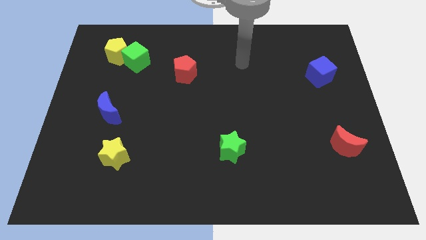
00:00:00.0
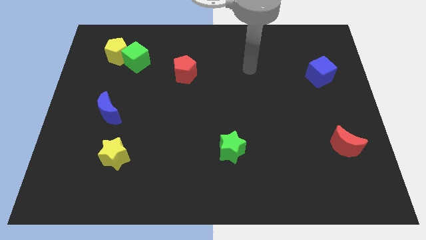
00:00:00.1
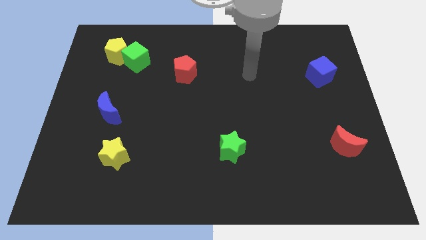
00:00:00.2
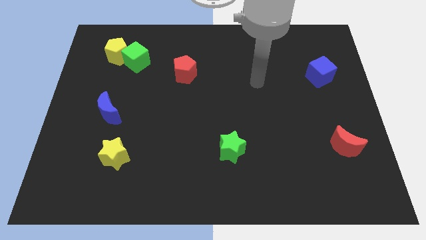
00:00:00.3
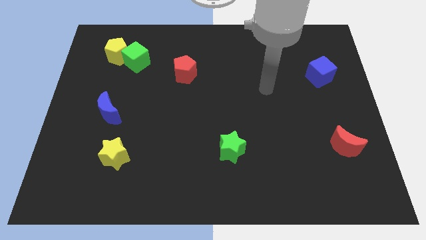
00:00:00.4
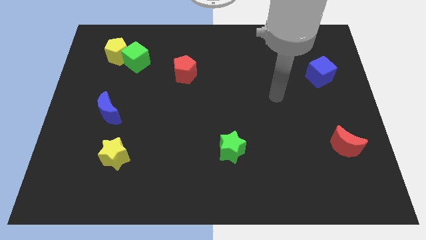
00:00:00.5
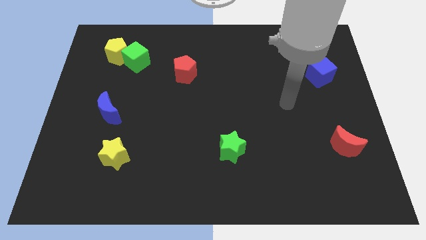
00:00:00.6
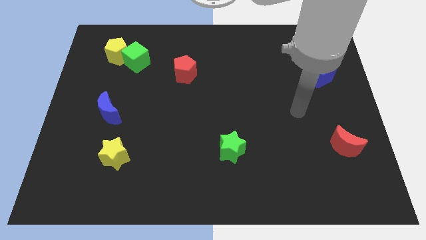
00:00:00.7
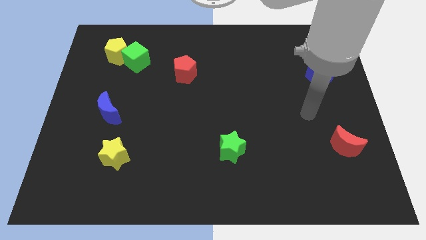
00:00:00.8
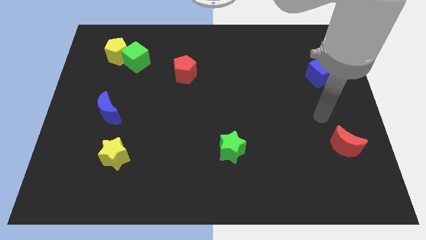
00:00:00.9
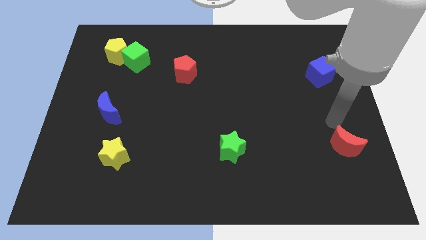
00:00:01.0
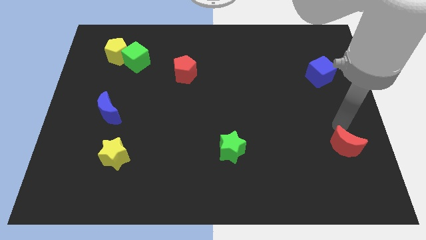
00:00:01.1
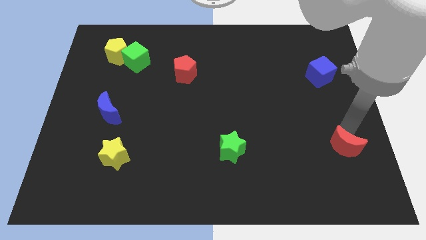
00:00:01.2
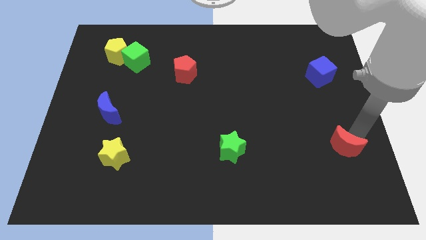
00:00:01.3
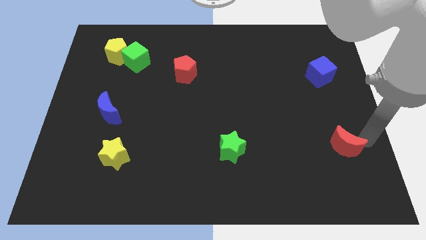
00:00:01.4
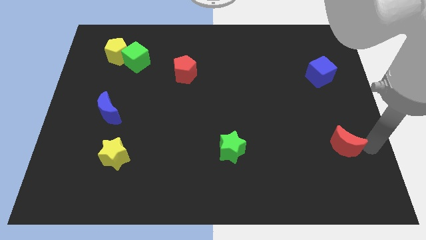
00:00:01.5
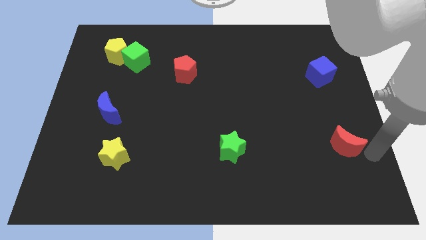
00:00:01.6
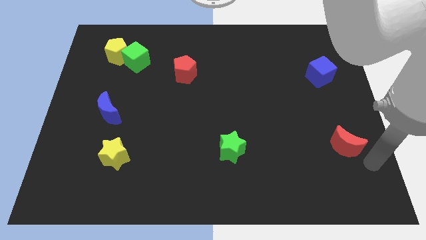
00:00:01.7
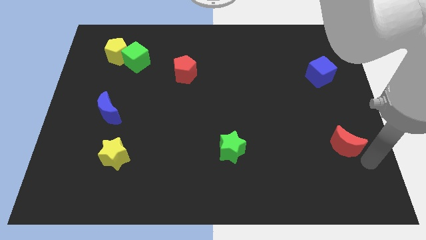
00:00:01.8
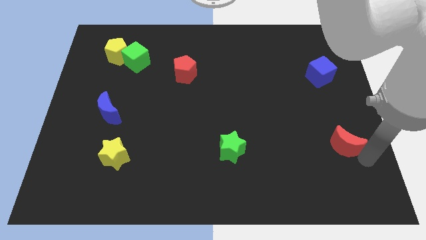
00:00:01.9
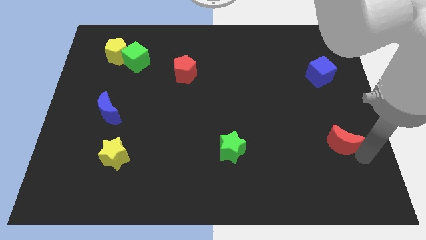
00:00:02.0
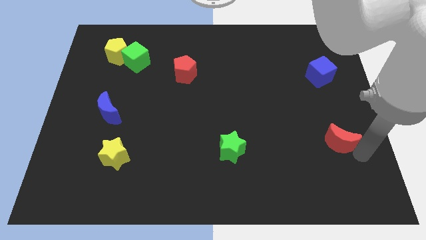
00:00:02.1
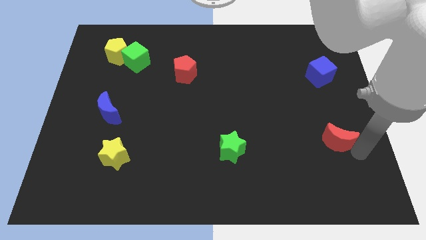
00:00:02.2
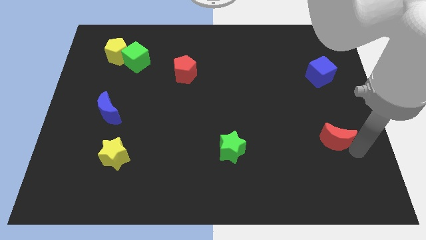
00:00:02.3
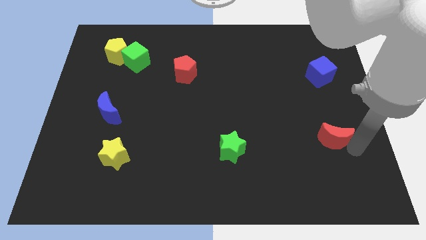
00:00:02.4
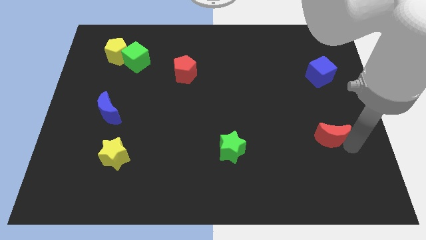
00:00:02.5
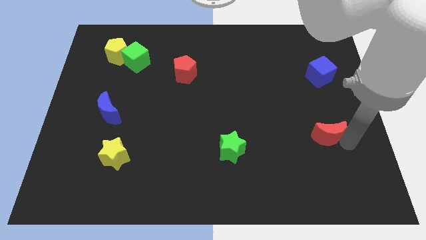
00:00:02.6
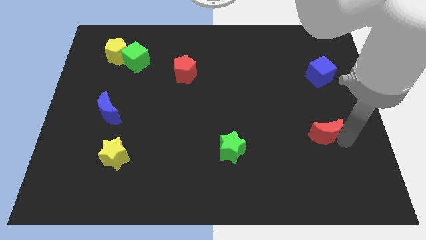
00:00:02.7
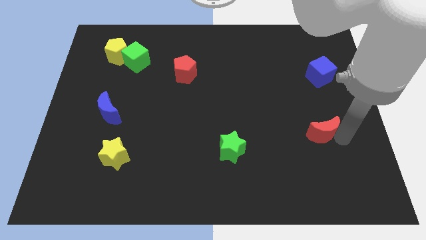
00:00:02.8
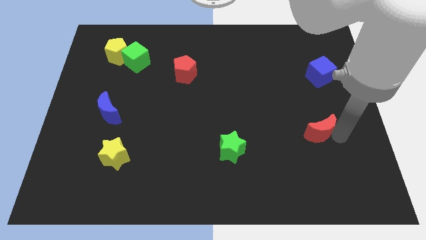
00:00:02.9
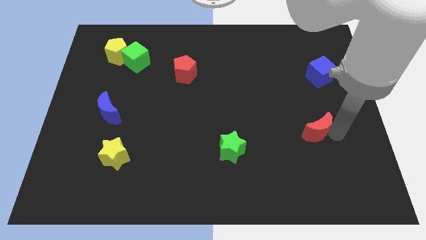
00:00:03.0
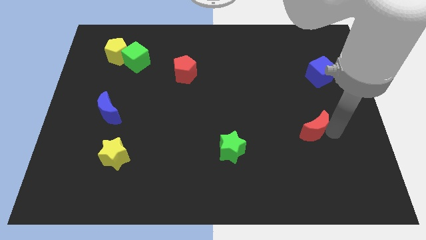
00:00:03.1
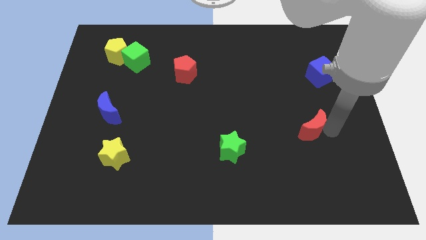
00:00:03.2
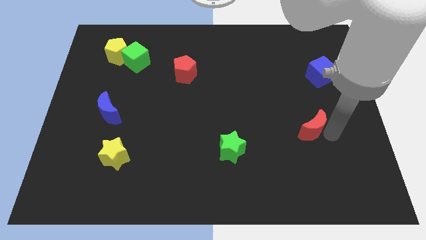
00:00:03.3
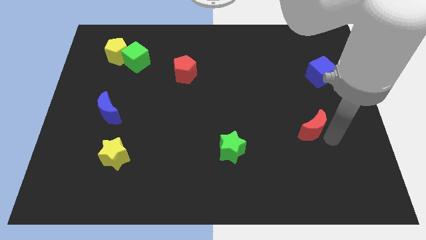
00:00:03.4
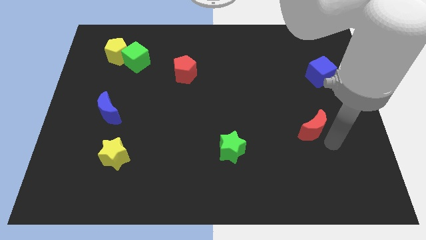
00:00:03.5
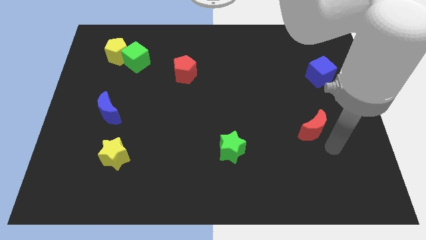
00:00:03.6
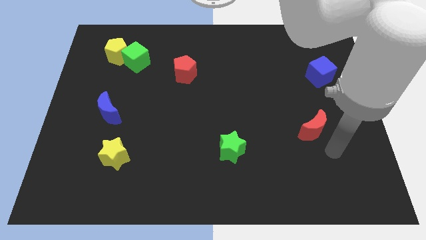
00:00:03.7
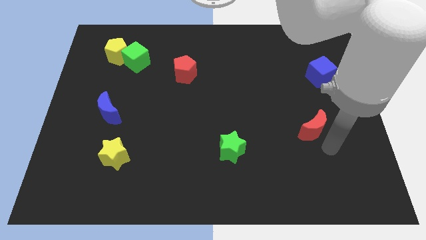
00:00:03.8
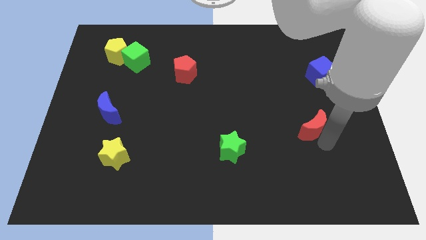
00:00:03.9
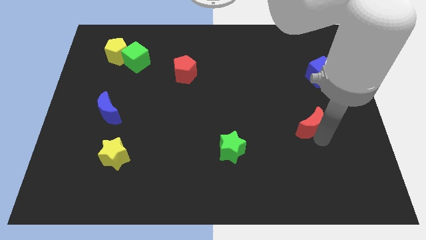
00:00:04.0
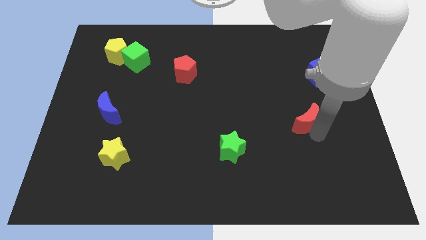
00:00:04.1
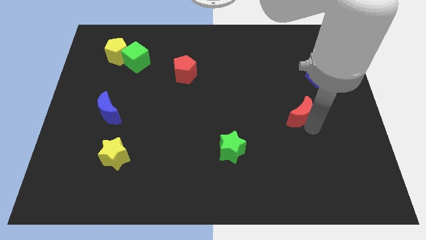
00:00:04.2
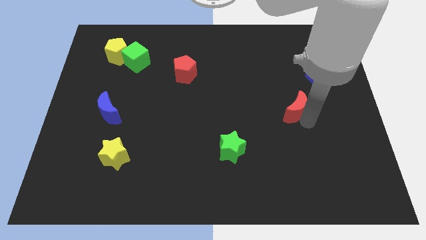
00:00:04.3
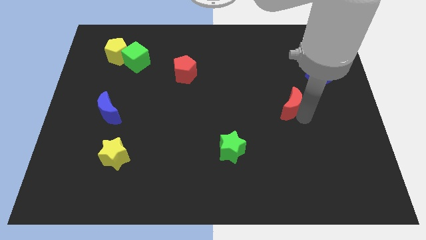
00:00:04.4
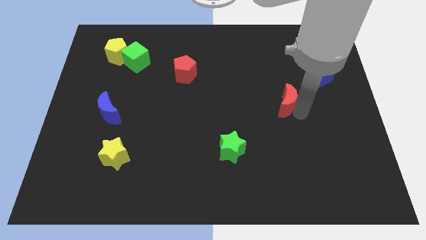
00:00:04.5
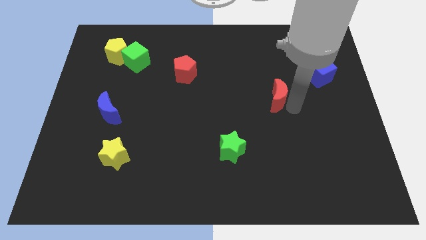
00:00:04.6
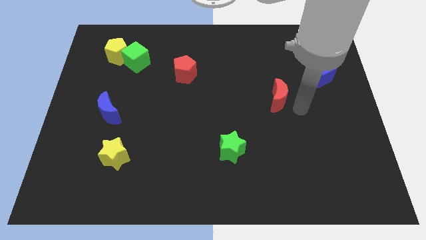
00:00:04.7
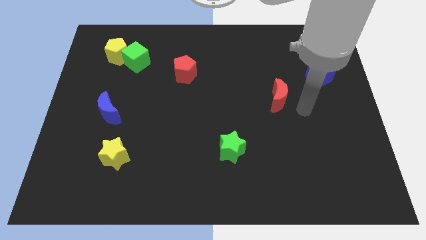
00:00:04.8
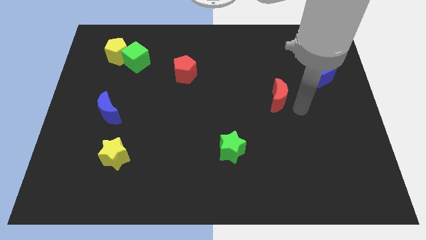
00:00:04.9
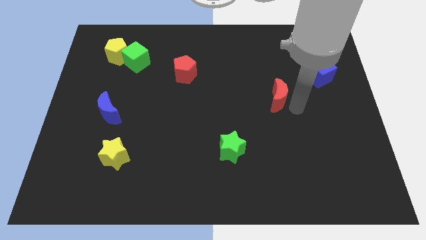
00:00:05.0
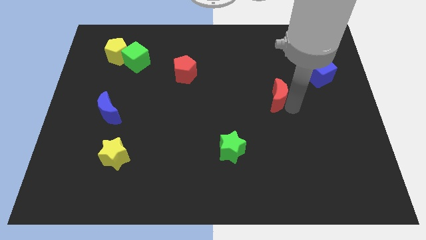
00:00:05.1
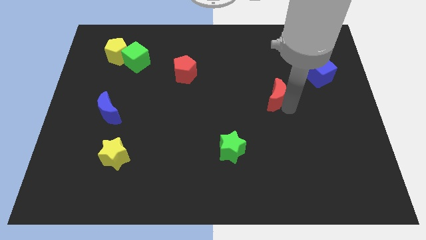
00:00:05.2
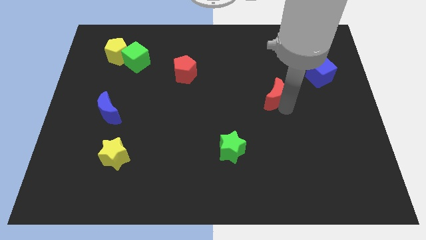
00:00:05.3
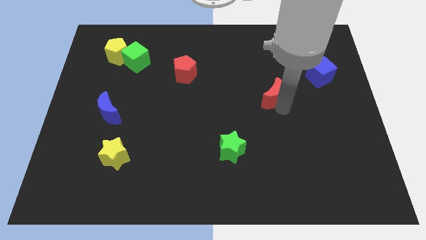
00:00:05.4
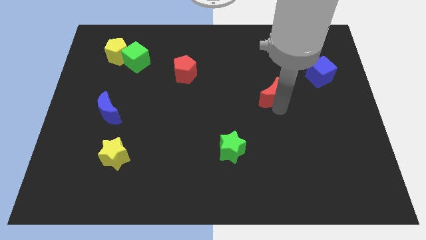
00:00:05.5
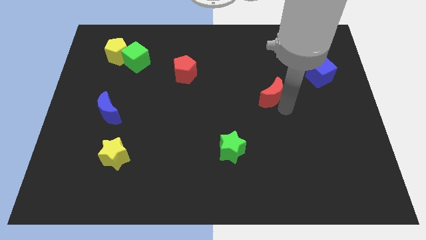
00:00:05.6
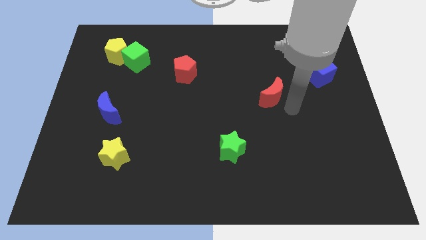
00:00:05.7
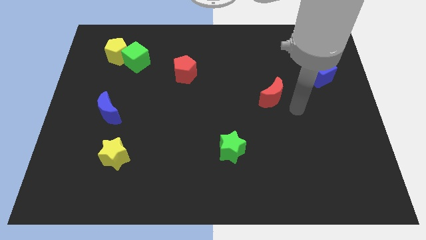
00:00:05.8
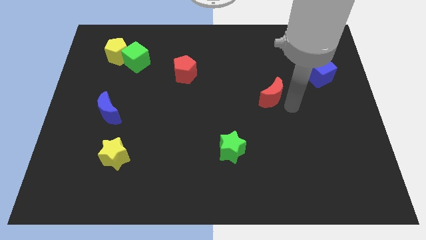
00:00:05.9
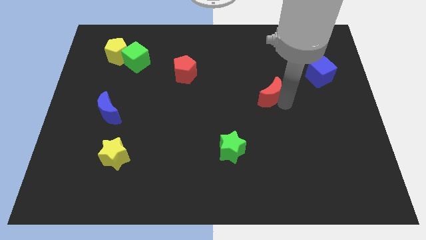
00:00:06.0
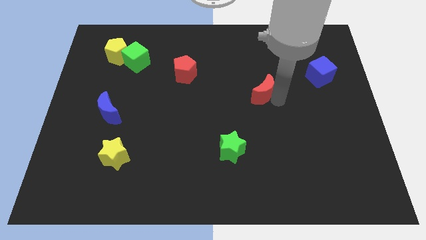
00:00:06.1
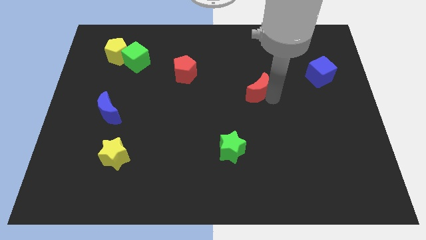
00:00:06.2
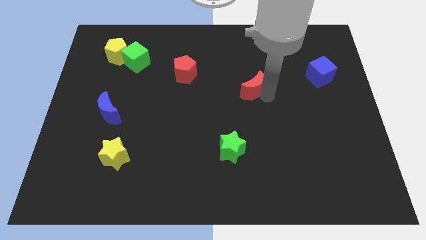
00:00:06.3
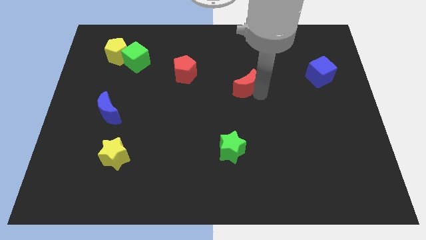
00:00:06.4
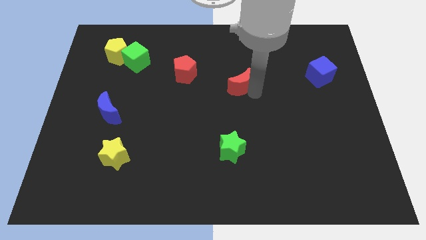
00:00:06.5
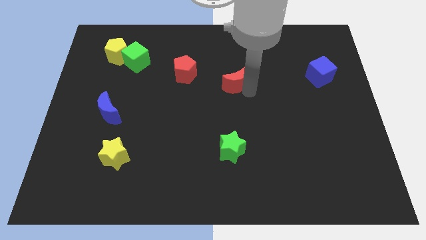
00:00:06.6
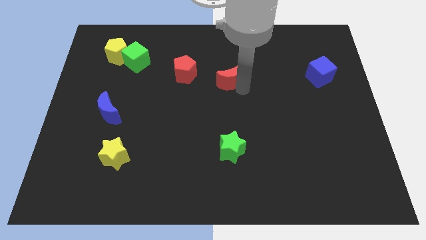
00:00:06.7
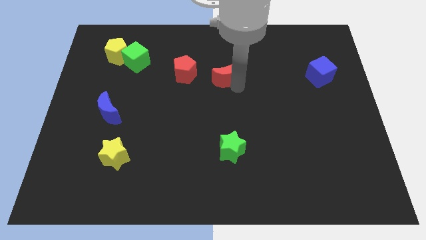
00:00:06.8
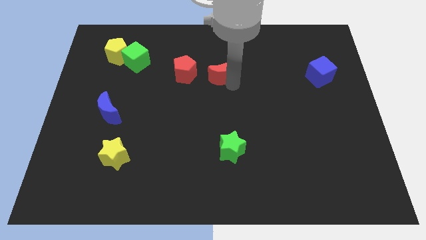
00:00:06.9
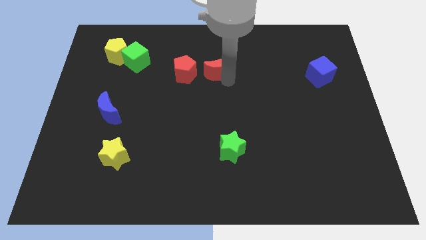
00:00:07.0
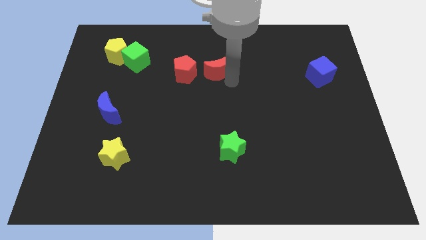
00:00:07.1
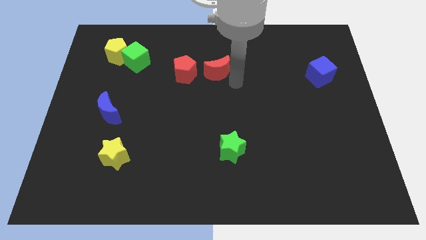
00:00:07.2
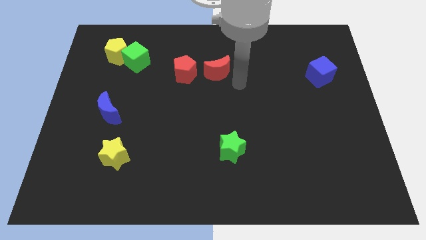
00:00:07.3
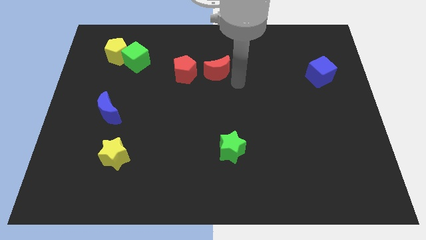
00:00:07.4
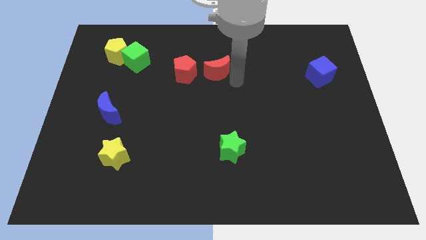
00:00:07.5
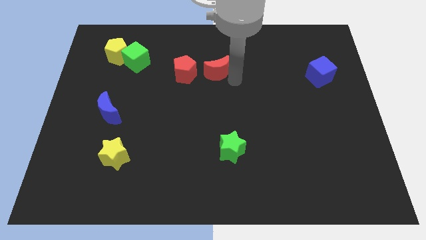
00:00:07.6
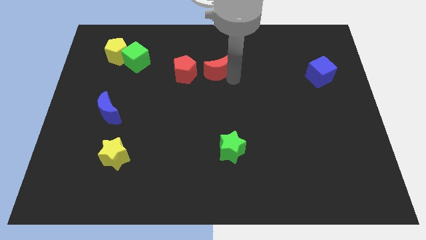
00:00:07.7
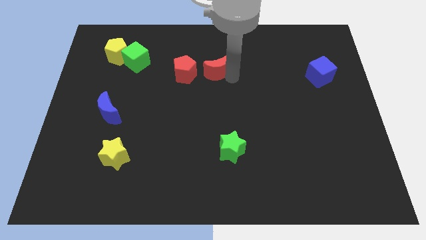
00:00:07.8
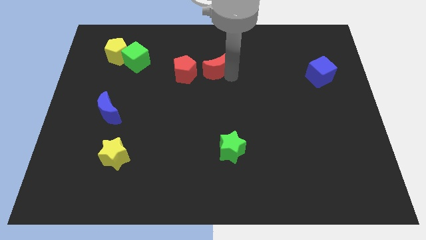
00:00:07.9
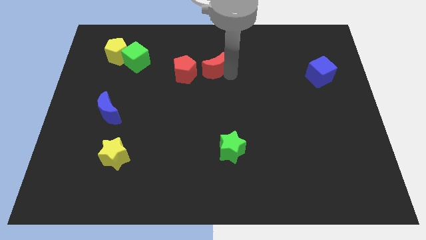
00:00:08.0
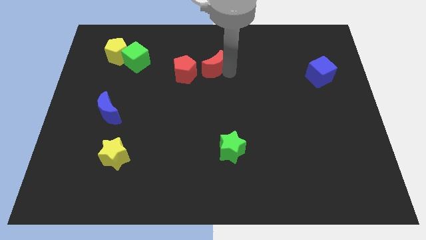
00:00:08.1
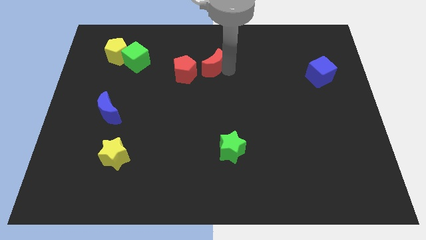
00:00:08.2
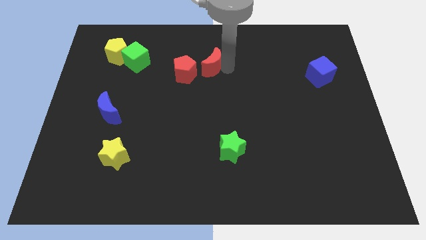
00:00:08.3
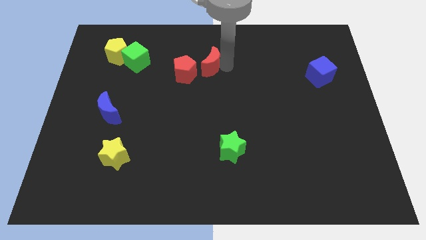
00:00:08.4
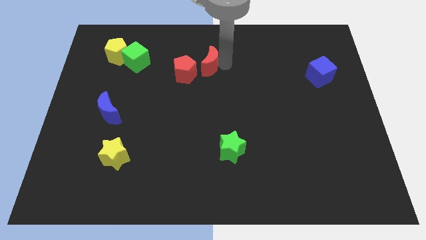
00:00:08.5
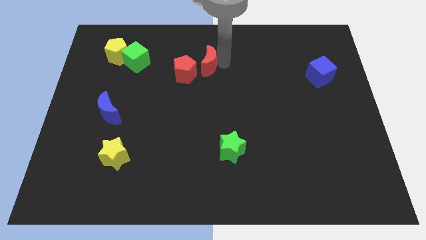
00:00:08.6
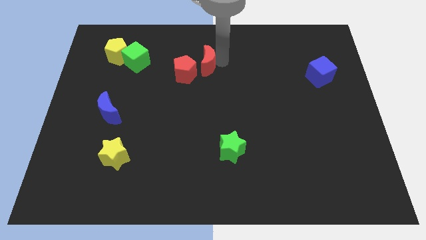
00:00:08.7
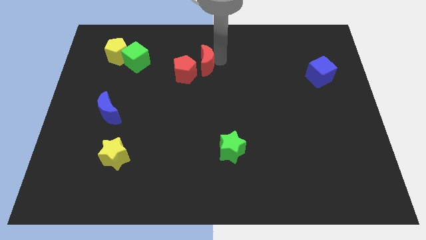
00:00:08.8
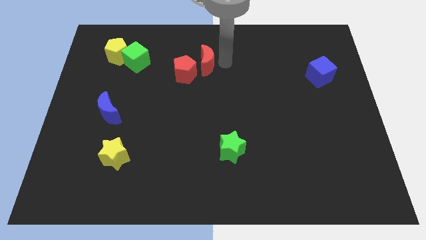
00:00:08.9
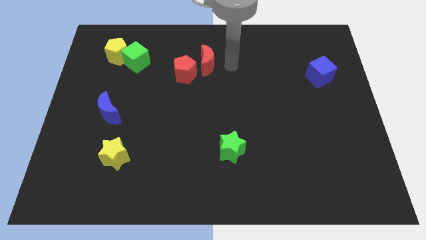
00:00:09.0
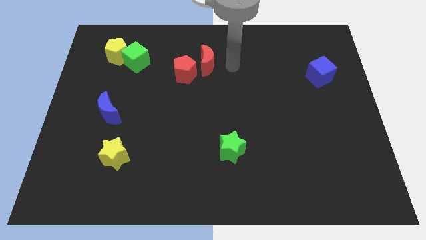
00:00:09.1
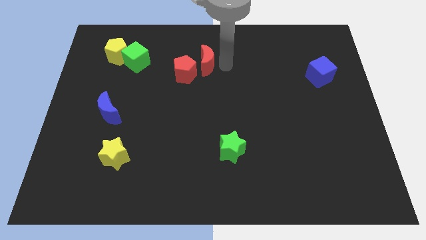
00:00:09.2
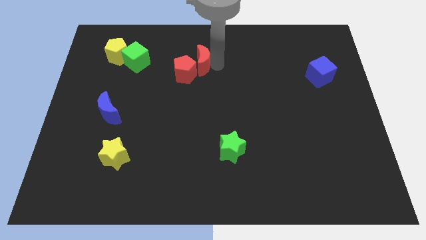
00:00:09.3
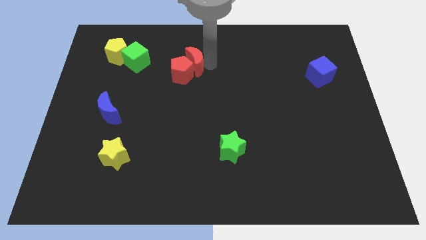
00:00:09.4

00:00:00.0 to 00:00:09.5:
push the red moon to the right side of the green cube
